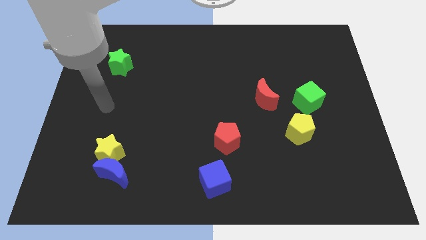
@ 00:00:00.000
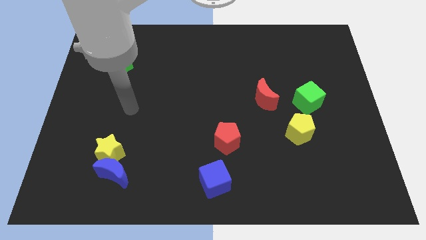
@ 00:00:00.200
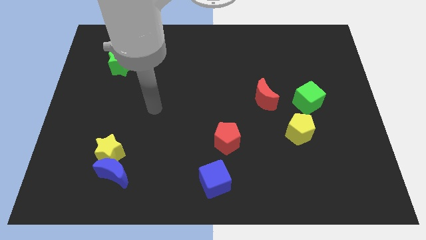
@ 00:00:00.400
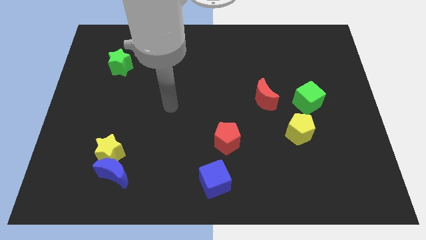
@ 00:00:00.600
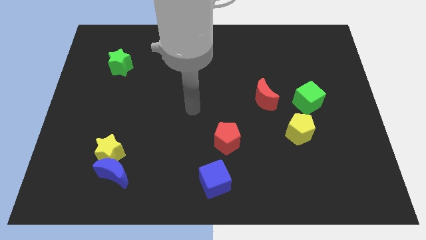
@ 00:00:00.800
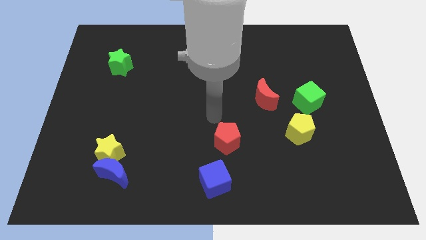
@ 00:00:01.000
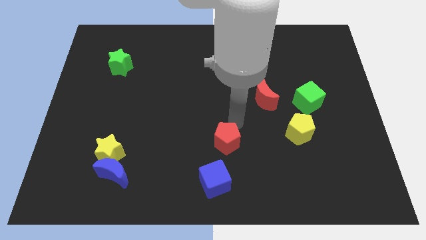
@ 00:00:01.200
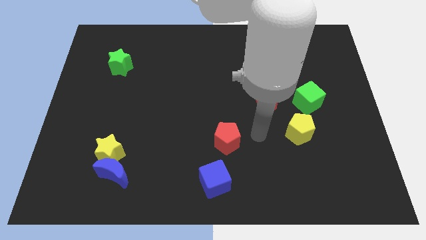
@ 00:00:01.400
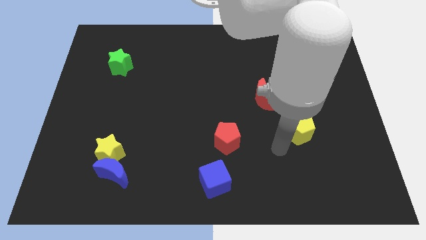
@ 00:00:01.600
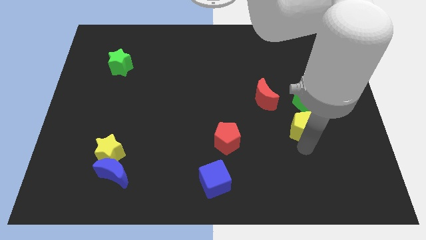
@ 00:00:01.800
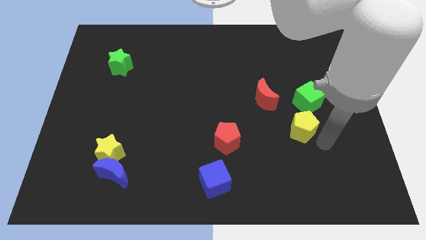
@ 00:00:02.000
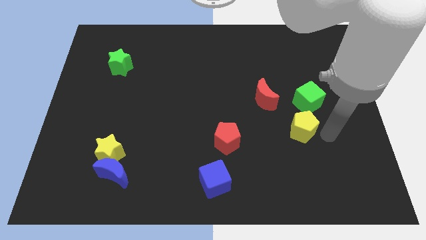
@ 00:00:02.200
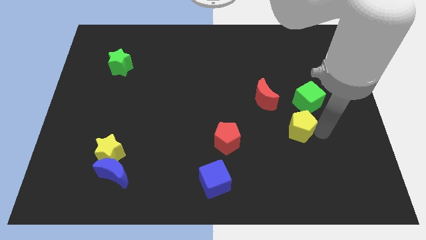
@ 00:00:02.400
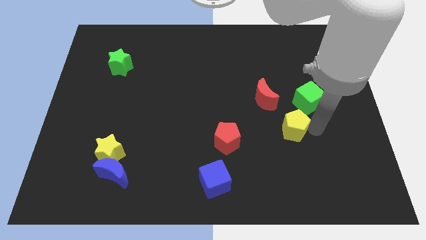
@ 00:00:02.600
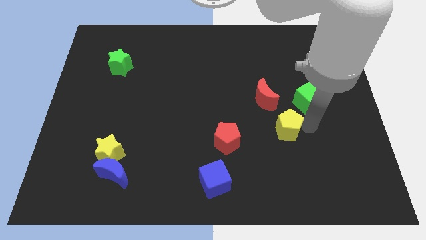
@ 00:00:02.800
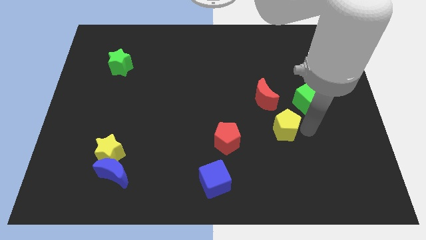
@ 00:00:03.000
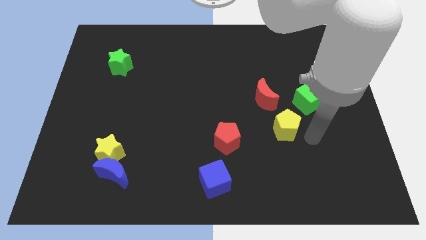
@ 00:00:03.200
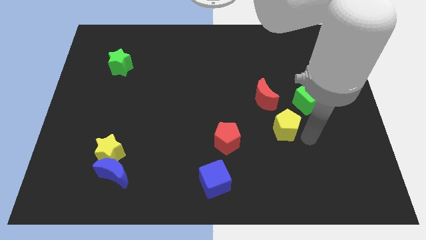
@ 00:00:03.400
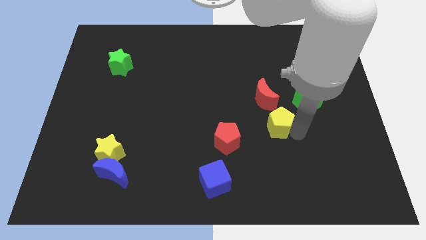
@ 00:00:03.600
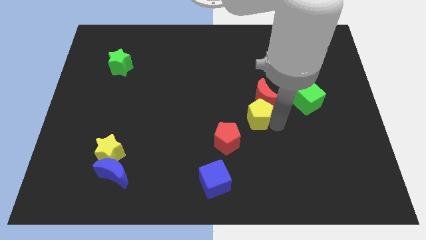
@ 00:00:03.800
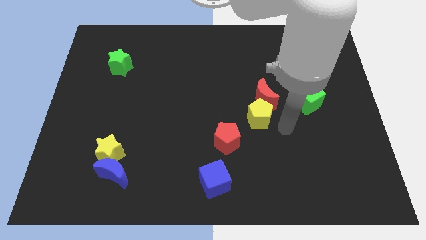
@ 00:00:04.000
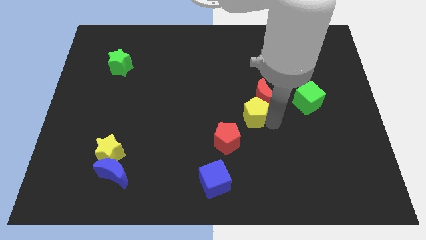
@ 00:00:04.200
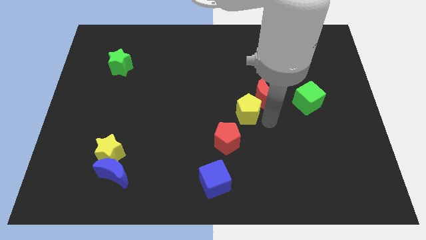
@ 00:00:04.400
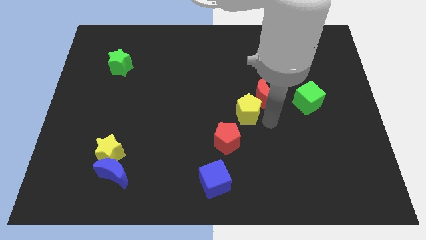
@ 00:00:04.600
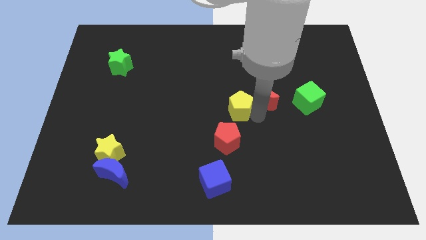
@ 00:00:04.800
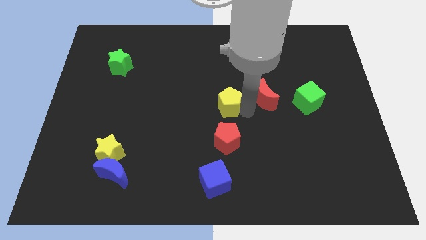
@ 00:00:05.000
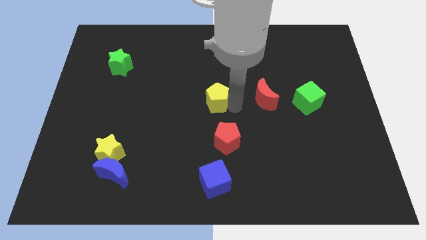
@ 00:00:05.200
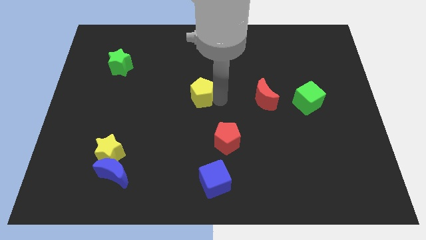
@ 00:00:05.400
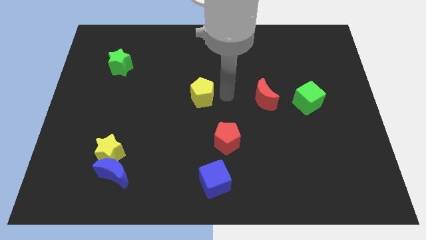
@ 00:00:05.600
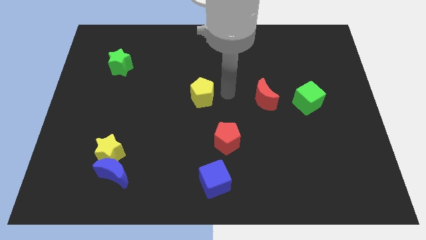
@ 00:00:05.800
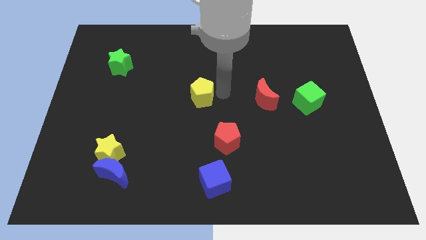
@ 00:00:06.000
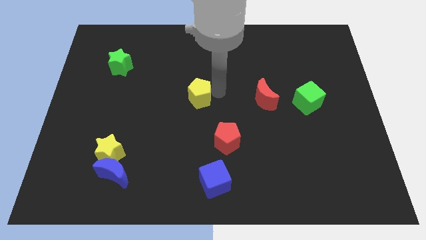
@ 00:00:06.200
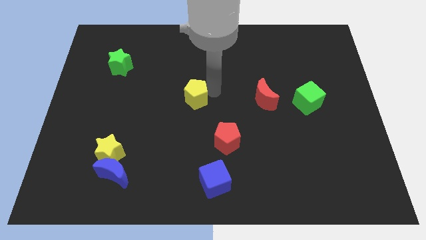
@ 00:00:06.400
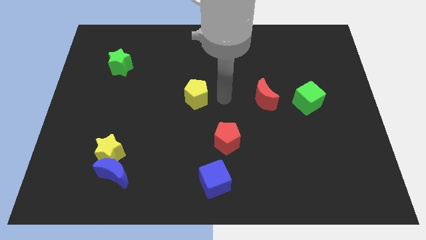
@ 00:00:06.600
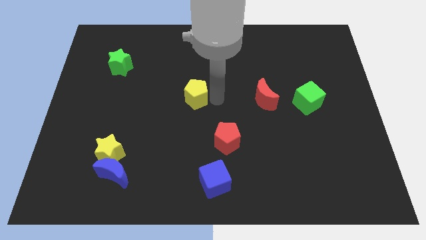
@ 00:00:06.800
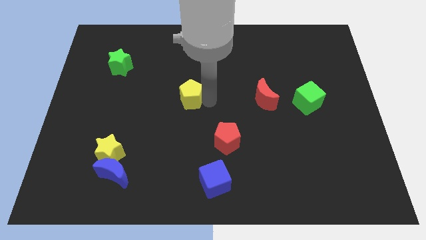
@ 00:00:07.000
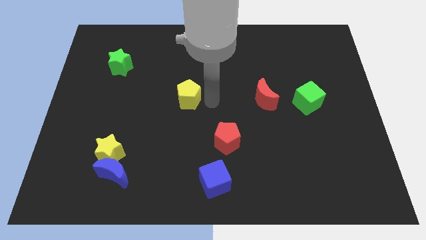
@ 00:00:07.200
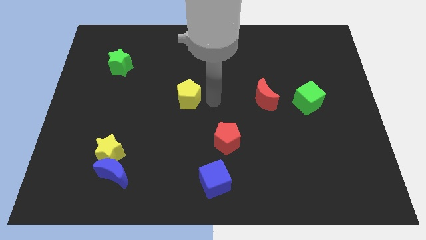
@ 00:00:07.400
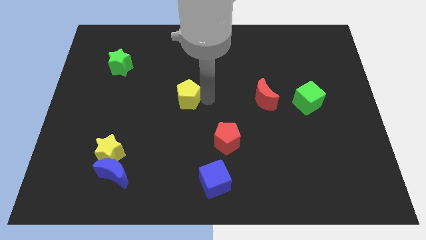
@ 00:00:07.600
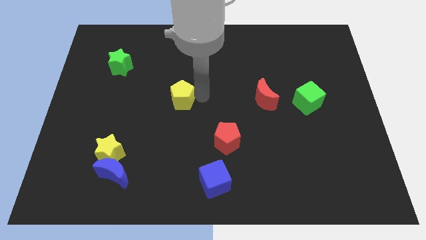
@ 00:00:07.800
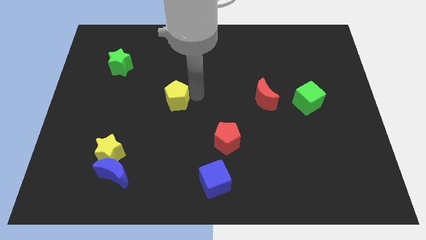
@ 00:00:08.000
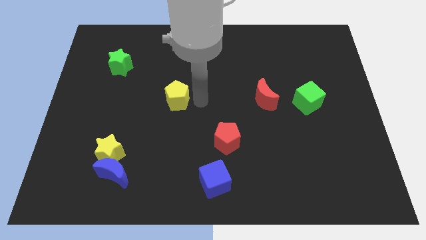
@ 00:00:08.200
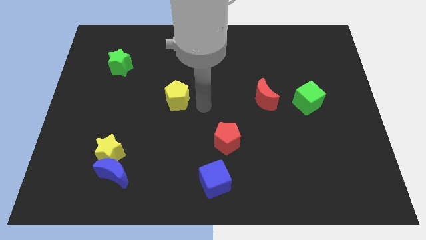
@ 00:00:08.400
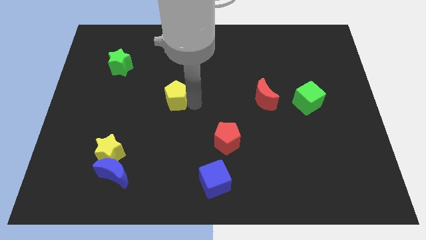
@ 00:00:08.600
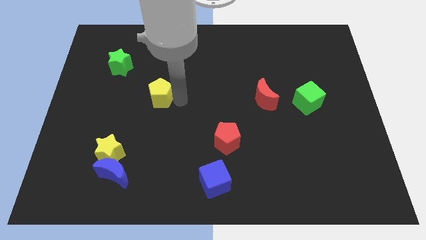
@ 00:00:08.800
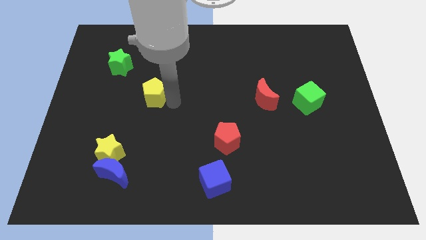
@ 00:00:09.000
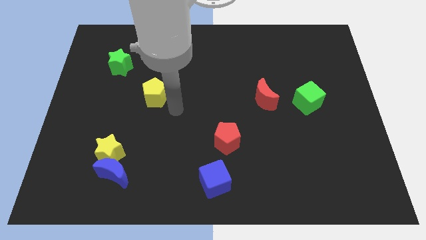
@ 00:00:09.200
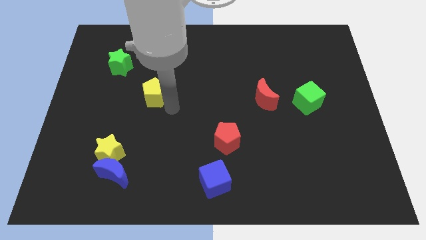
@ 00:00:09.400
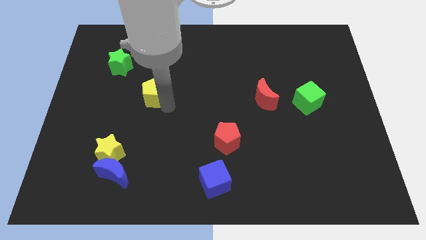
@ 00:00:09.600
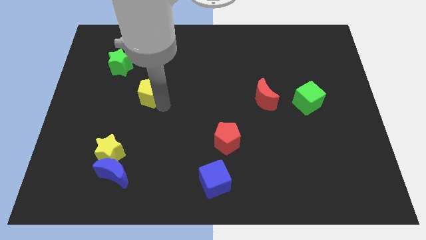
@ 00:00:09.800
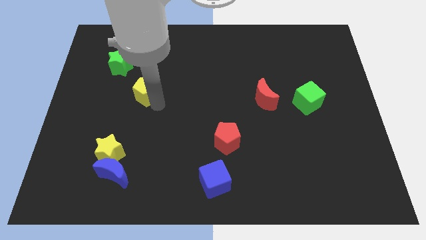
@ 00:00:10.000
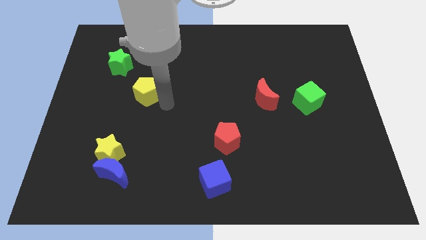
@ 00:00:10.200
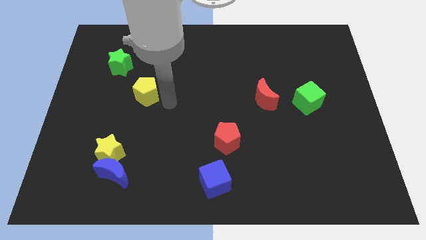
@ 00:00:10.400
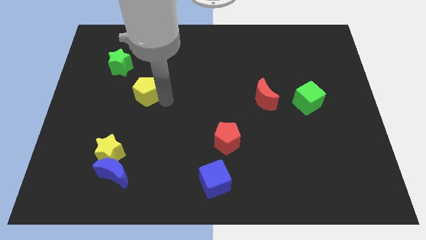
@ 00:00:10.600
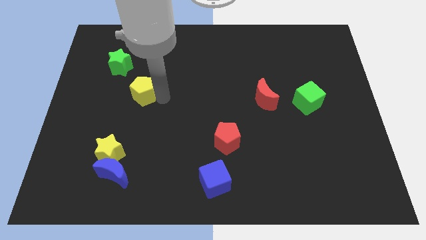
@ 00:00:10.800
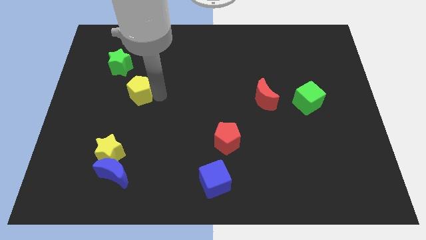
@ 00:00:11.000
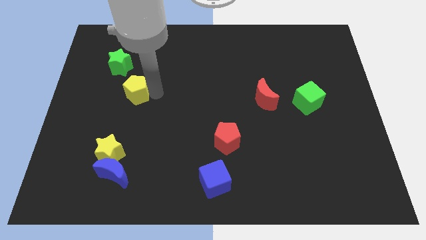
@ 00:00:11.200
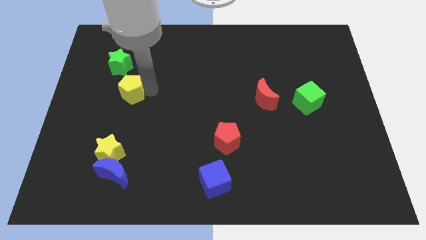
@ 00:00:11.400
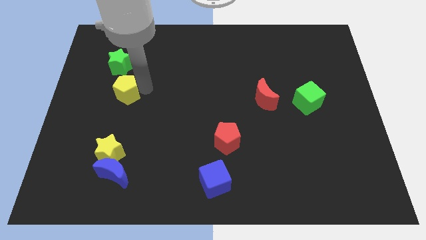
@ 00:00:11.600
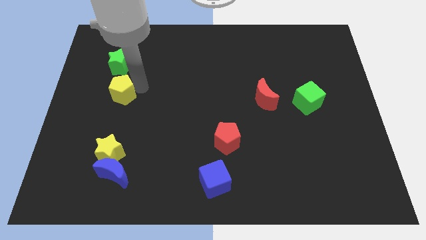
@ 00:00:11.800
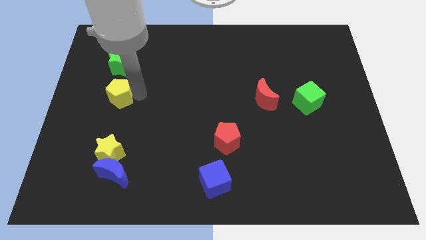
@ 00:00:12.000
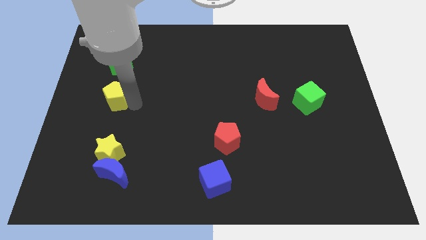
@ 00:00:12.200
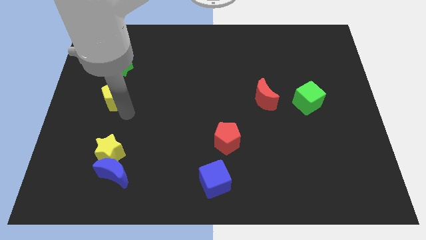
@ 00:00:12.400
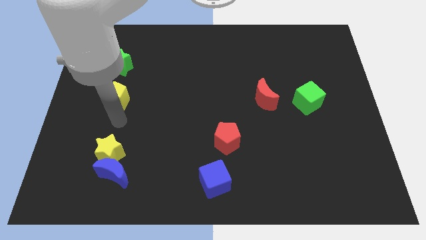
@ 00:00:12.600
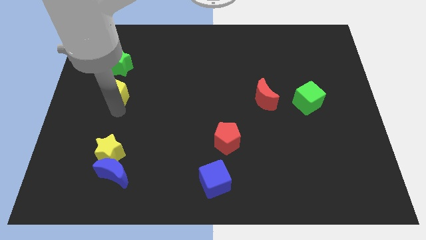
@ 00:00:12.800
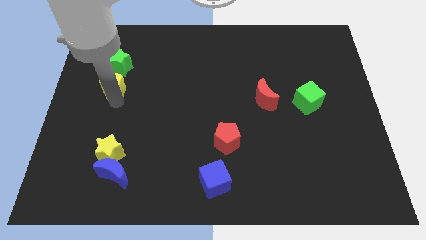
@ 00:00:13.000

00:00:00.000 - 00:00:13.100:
push the yellow pentagon to the bottom left of the green star
